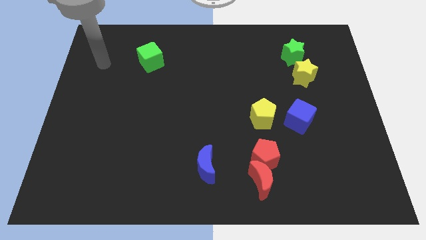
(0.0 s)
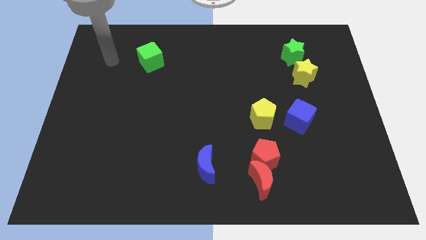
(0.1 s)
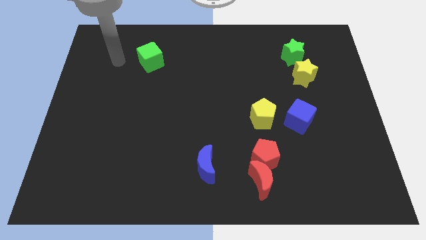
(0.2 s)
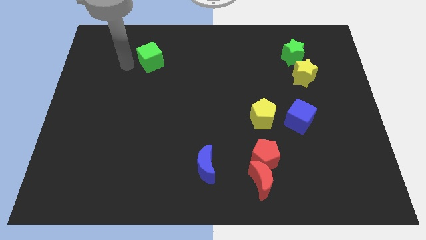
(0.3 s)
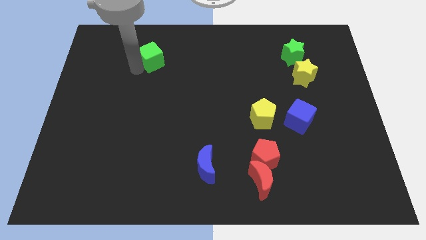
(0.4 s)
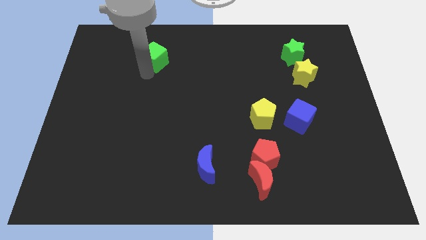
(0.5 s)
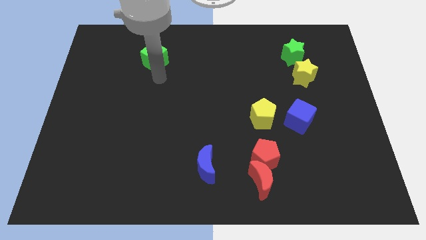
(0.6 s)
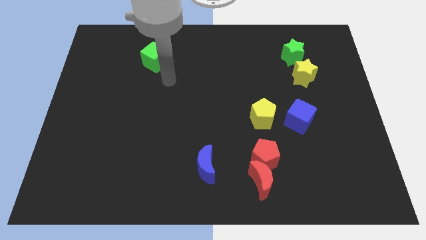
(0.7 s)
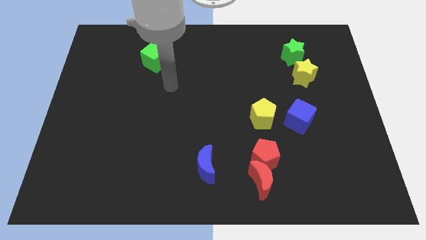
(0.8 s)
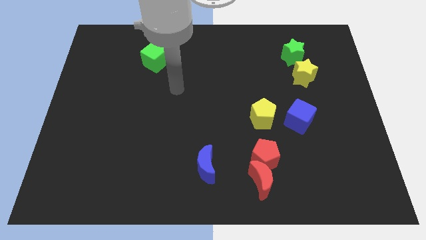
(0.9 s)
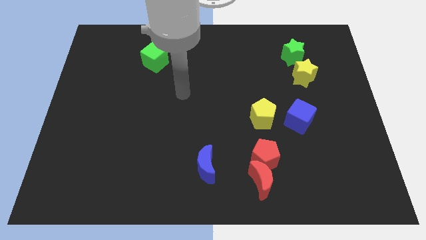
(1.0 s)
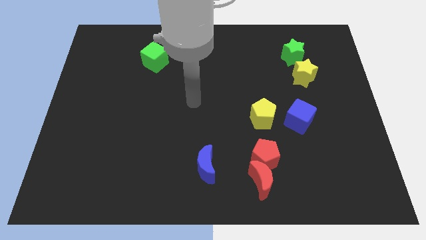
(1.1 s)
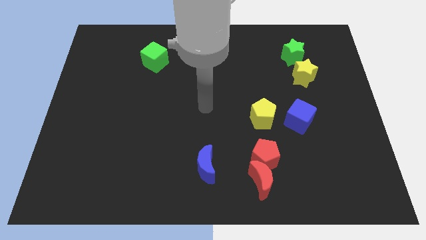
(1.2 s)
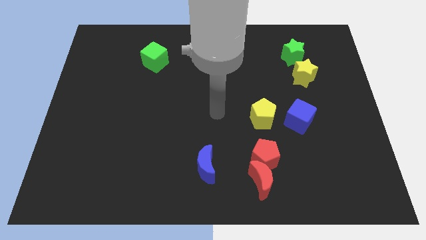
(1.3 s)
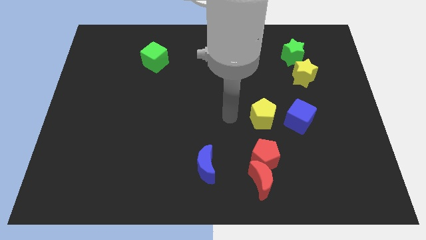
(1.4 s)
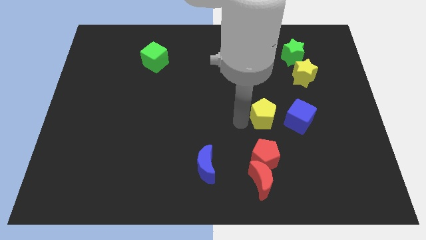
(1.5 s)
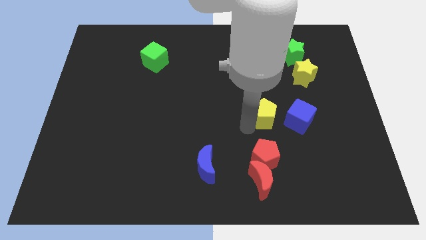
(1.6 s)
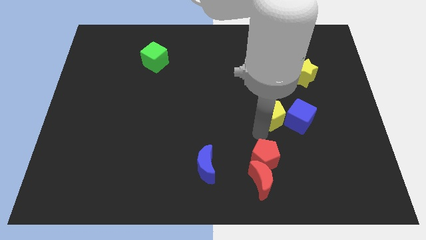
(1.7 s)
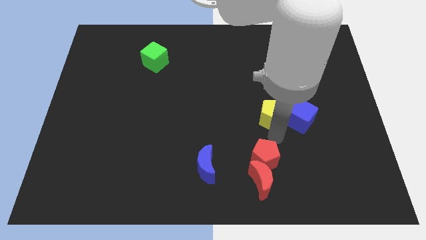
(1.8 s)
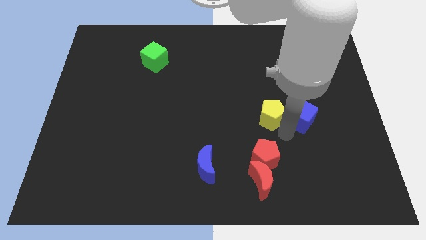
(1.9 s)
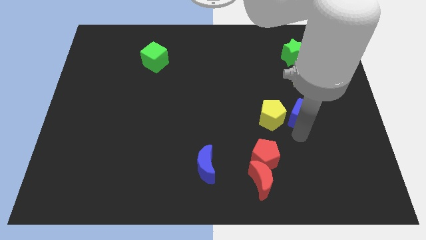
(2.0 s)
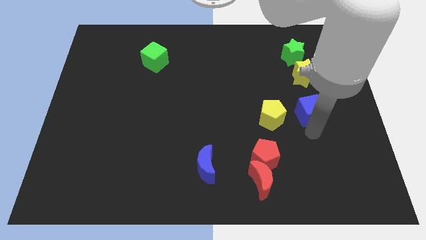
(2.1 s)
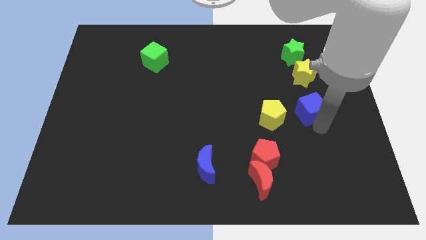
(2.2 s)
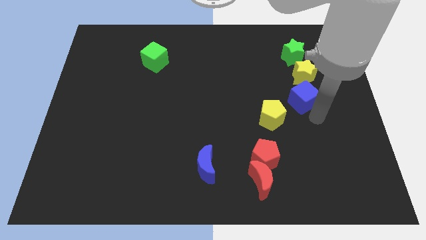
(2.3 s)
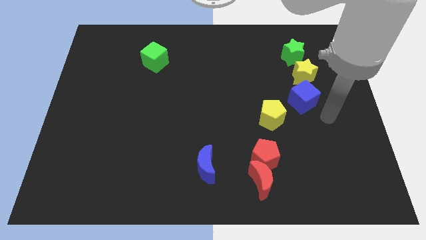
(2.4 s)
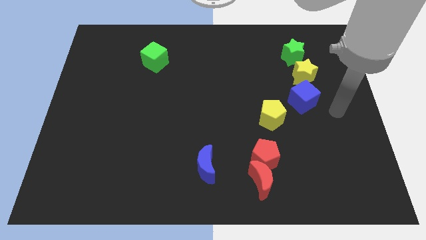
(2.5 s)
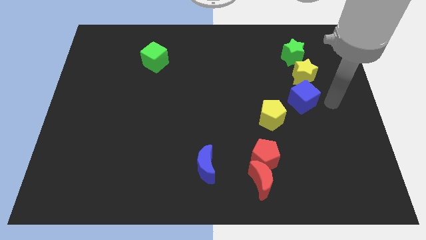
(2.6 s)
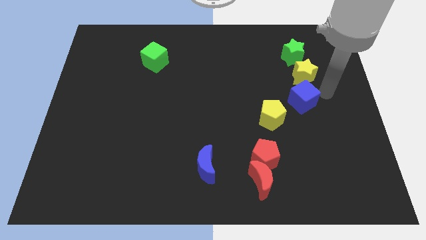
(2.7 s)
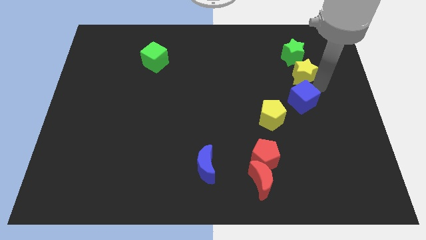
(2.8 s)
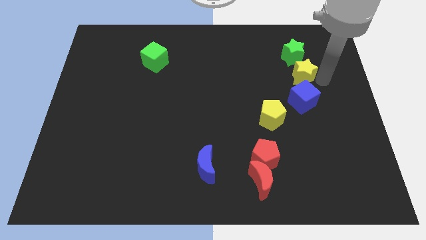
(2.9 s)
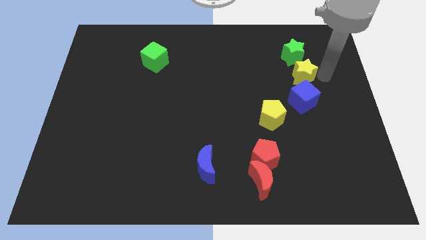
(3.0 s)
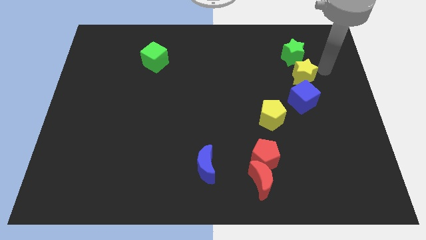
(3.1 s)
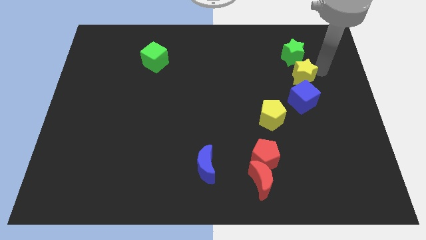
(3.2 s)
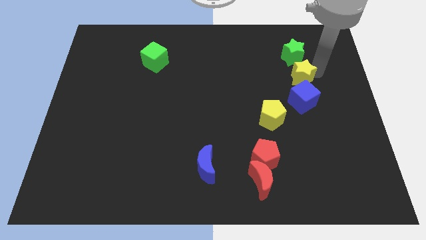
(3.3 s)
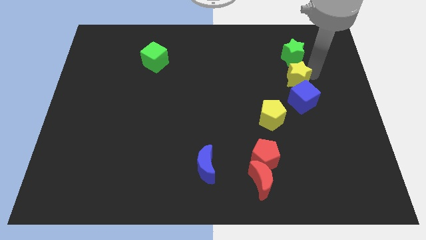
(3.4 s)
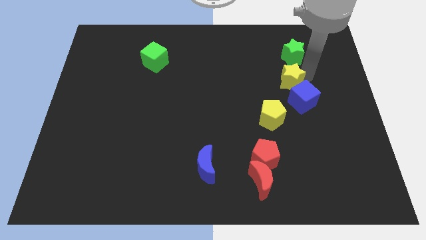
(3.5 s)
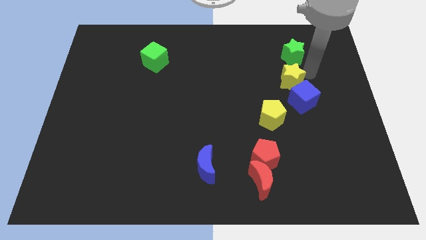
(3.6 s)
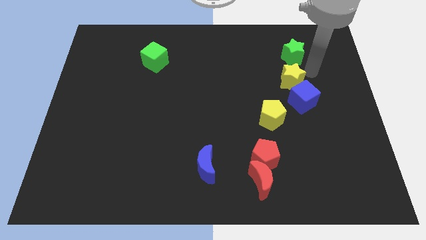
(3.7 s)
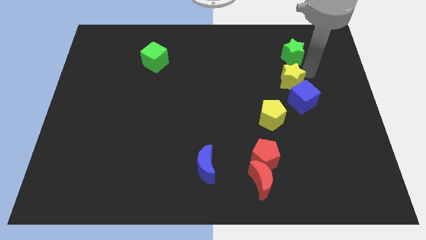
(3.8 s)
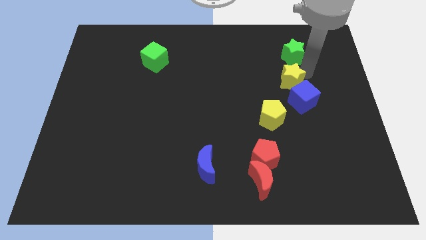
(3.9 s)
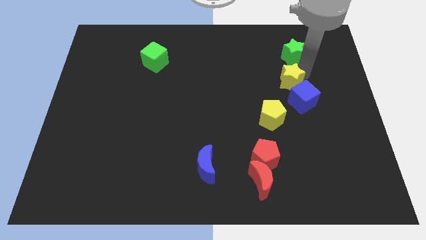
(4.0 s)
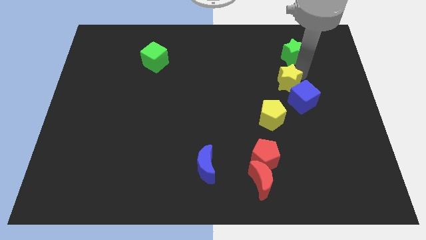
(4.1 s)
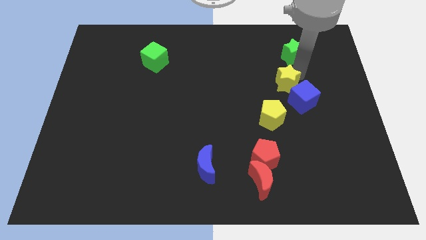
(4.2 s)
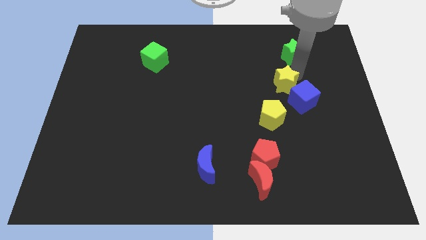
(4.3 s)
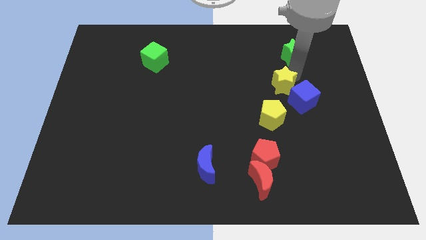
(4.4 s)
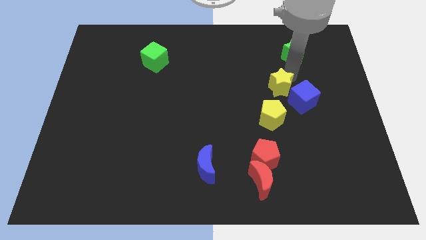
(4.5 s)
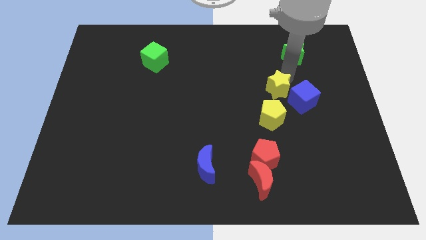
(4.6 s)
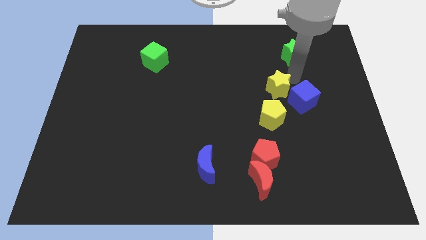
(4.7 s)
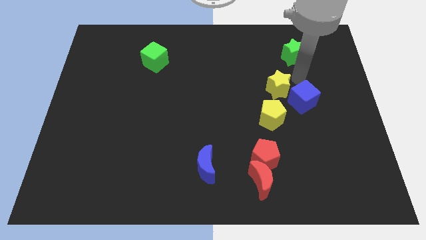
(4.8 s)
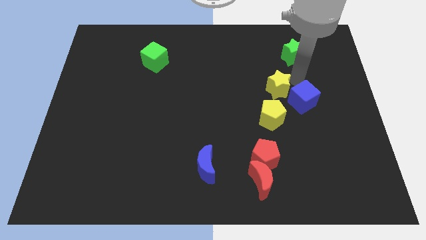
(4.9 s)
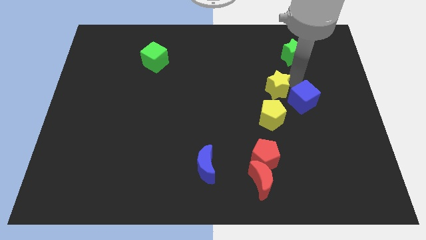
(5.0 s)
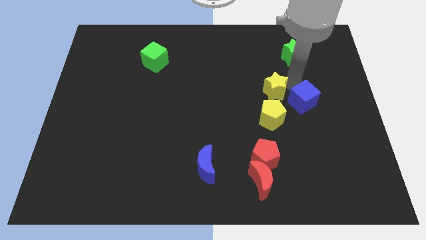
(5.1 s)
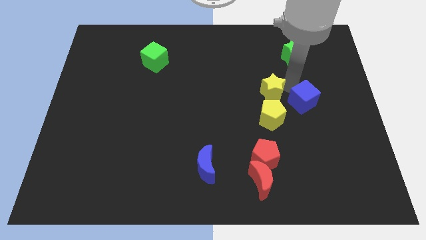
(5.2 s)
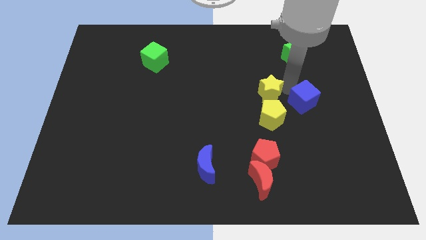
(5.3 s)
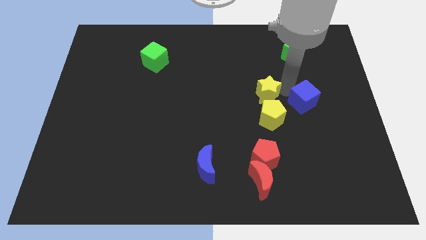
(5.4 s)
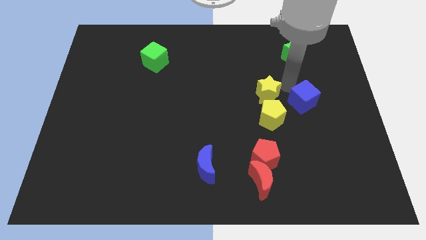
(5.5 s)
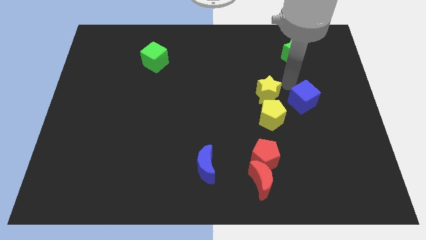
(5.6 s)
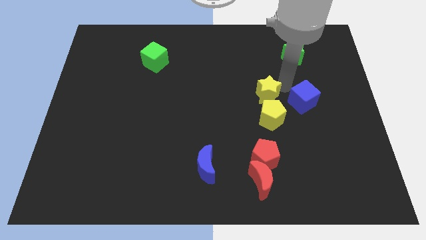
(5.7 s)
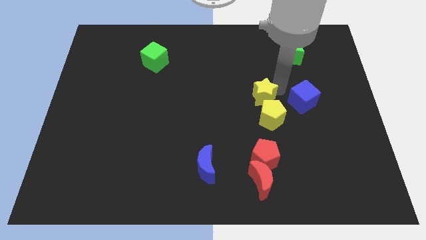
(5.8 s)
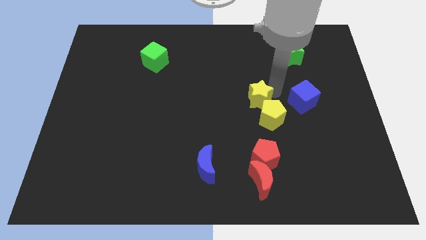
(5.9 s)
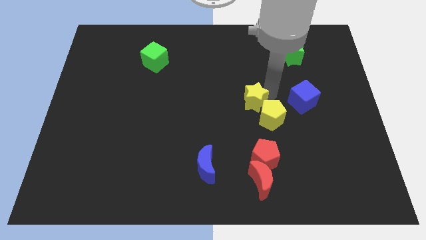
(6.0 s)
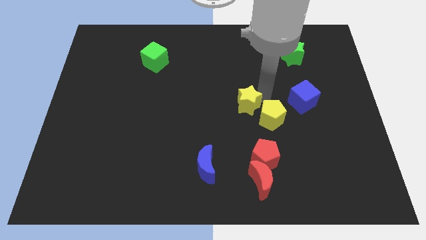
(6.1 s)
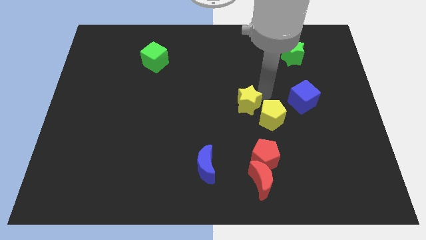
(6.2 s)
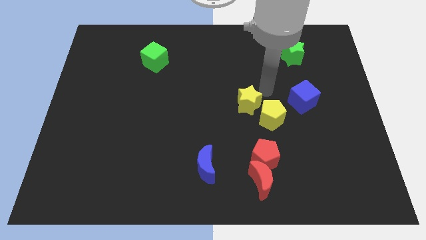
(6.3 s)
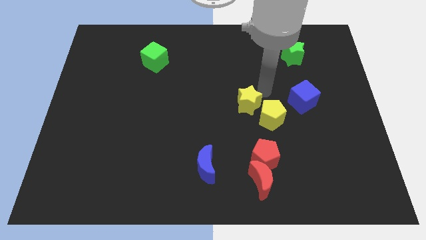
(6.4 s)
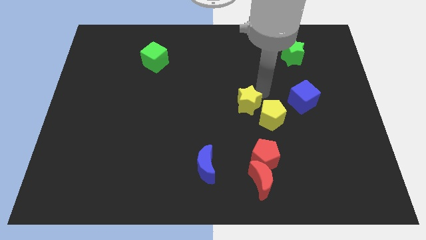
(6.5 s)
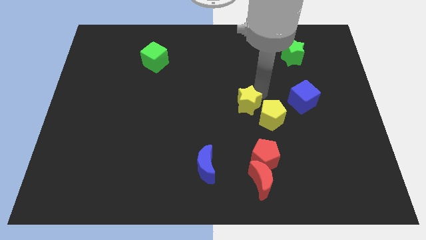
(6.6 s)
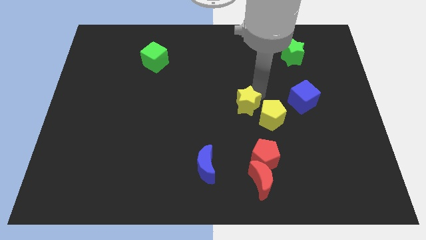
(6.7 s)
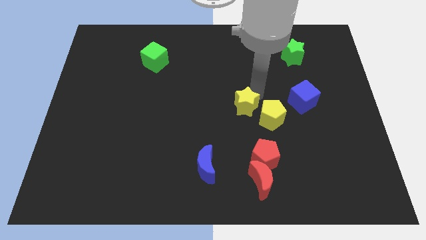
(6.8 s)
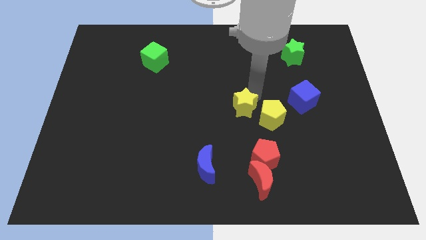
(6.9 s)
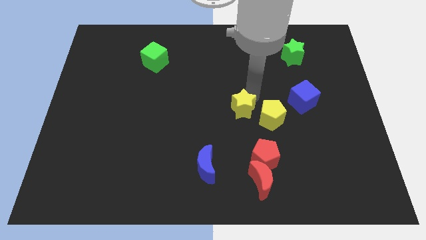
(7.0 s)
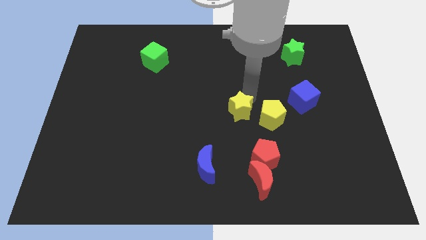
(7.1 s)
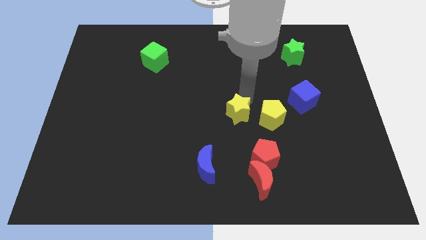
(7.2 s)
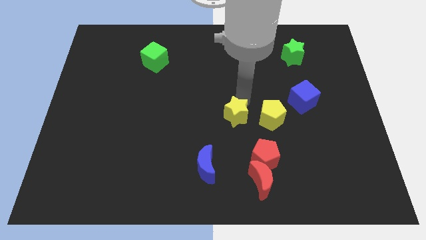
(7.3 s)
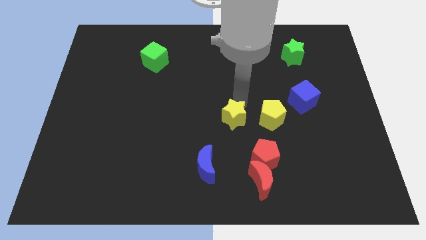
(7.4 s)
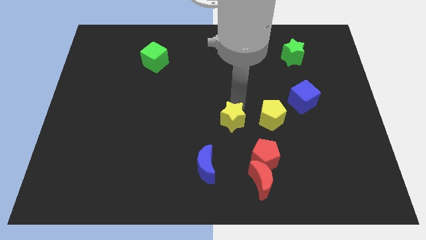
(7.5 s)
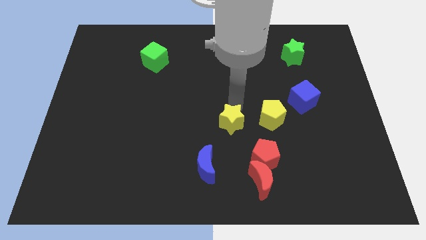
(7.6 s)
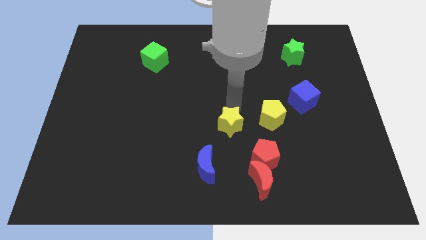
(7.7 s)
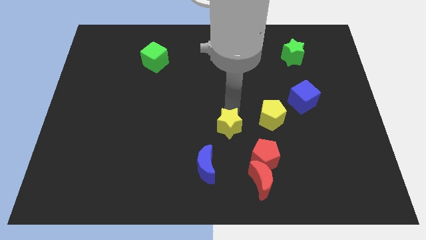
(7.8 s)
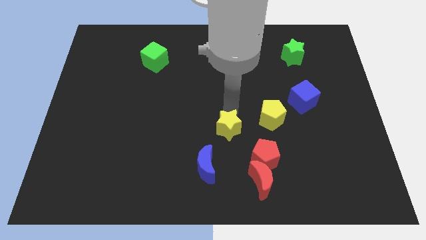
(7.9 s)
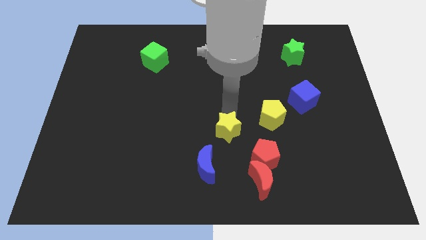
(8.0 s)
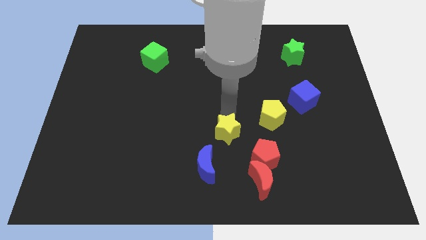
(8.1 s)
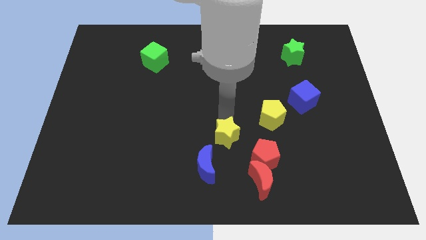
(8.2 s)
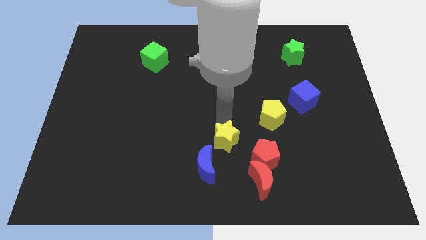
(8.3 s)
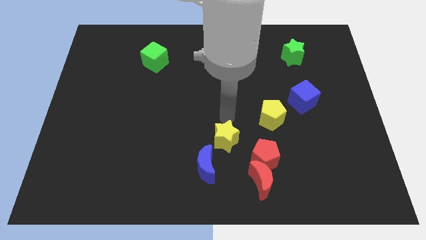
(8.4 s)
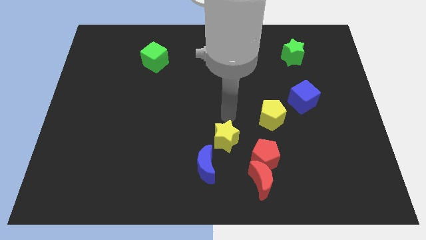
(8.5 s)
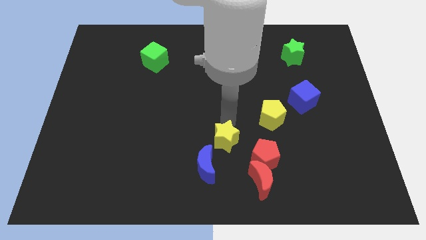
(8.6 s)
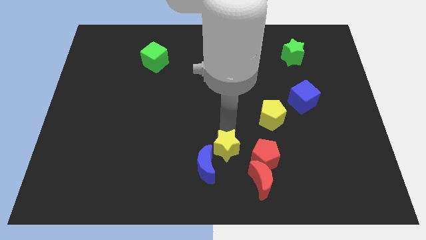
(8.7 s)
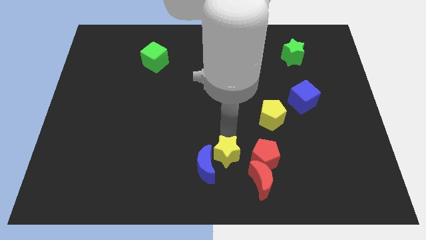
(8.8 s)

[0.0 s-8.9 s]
slide the yellow star to the bottom
